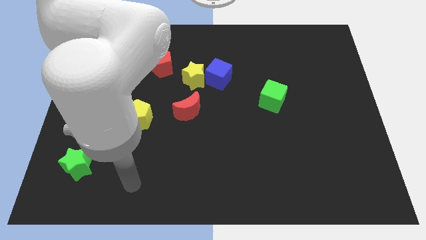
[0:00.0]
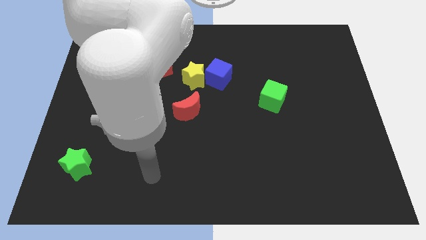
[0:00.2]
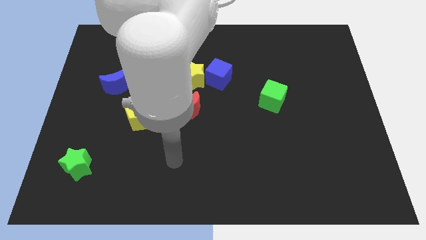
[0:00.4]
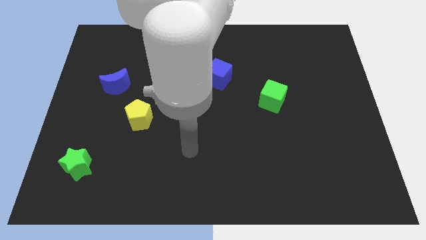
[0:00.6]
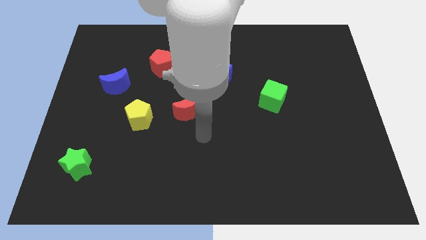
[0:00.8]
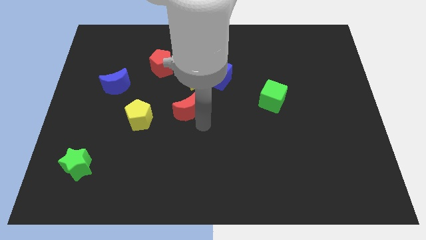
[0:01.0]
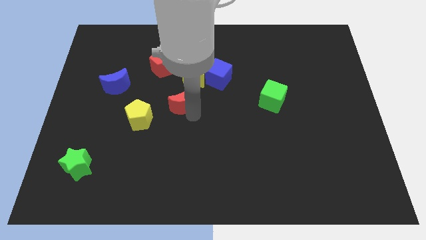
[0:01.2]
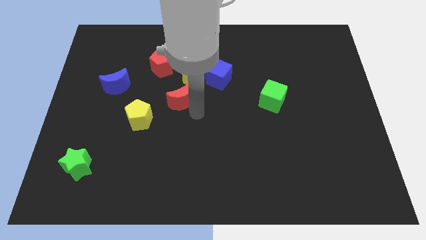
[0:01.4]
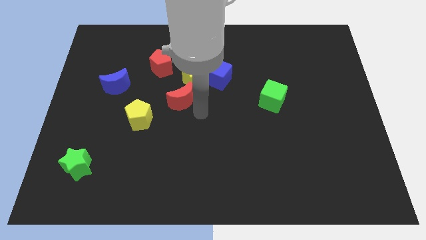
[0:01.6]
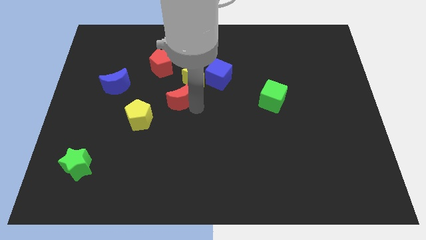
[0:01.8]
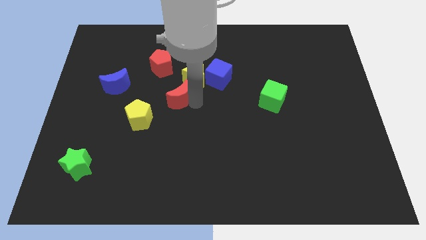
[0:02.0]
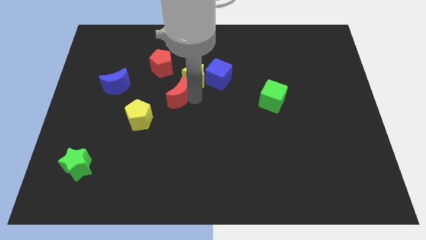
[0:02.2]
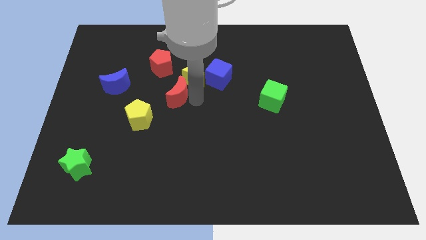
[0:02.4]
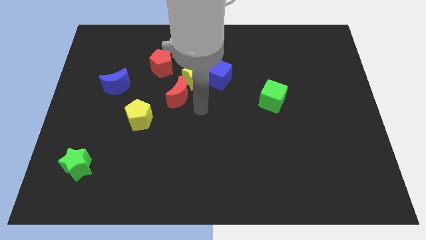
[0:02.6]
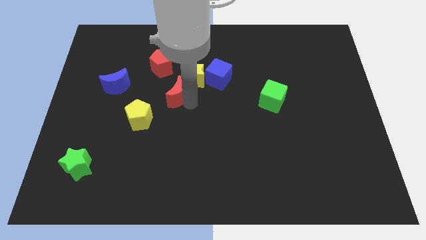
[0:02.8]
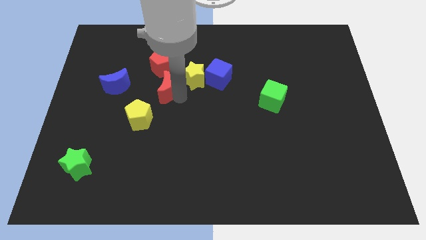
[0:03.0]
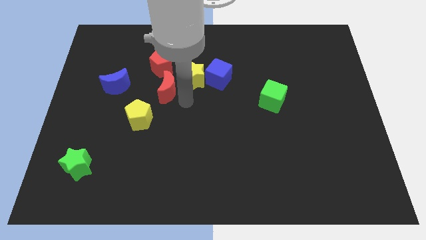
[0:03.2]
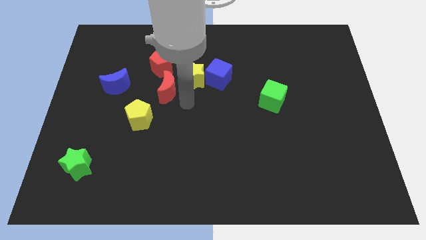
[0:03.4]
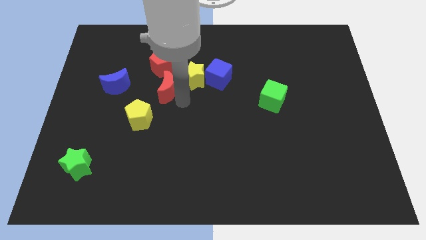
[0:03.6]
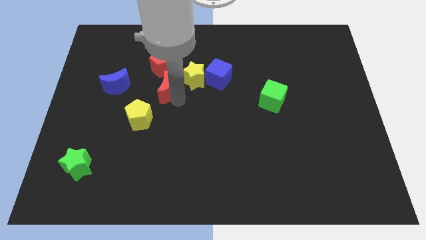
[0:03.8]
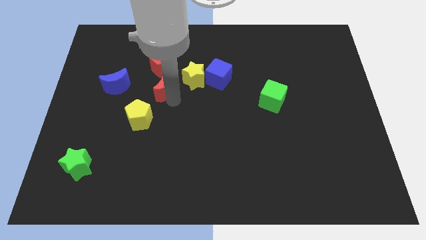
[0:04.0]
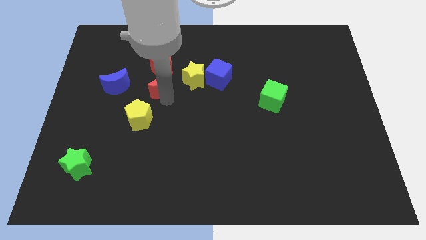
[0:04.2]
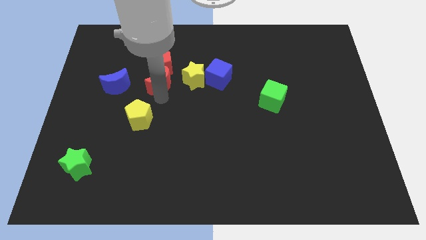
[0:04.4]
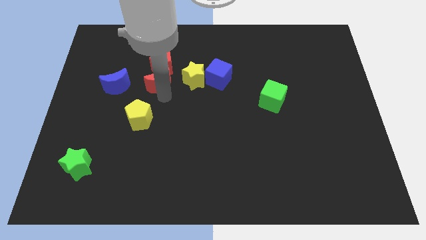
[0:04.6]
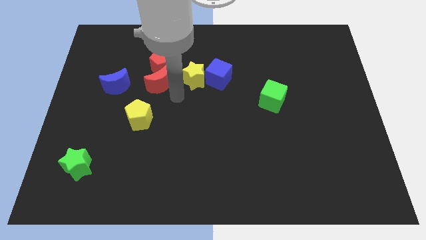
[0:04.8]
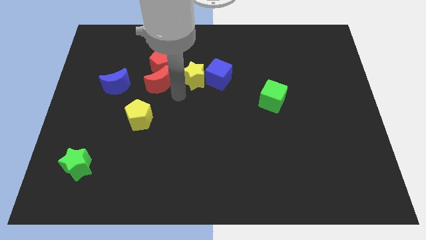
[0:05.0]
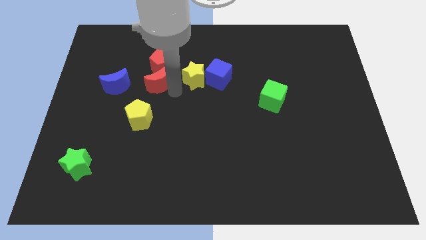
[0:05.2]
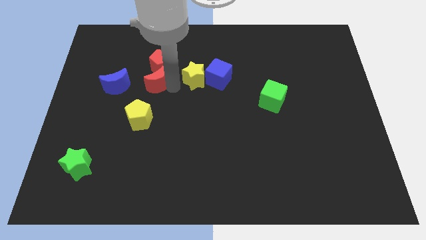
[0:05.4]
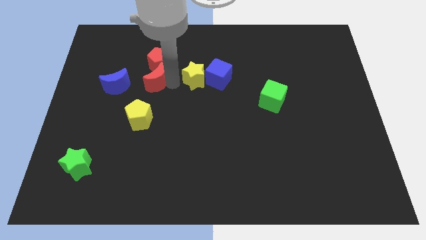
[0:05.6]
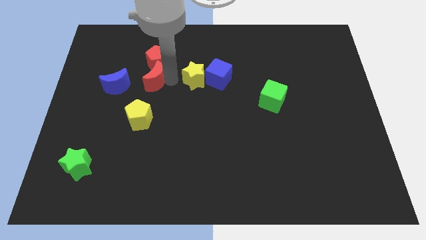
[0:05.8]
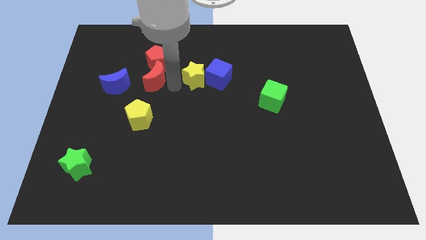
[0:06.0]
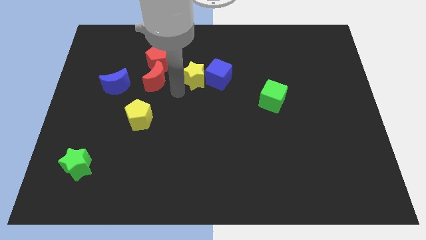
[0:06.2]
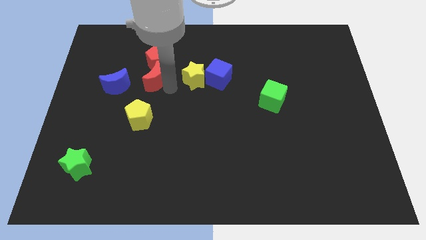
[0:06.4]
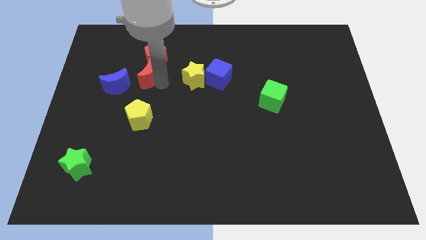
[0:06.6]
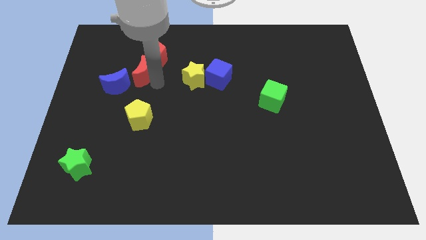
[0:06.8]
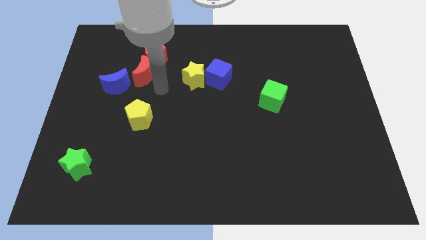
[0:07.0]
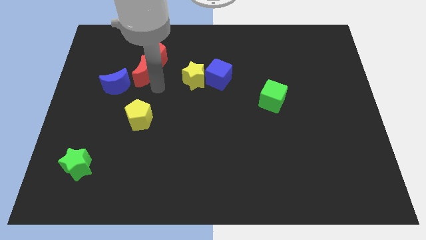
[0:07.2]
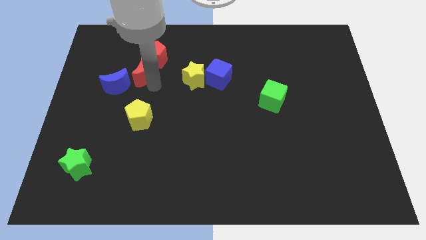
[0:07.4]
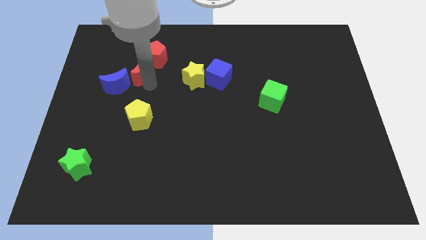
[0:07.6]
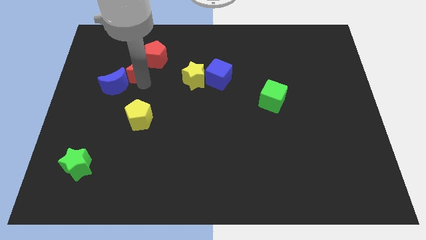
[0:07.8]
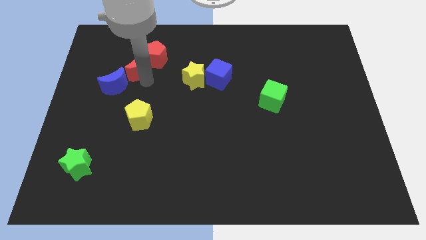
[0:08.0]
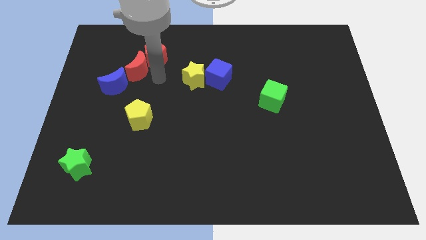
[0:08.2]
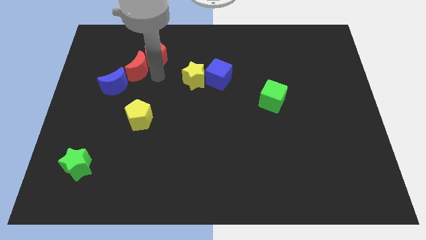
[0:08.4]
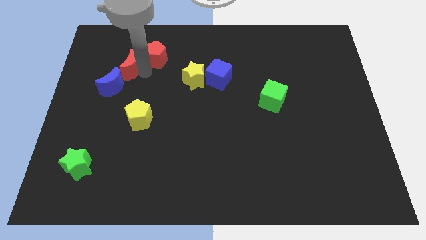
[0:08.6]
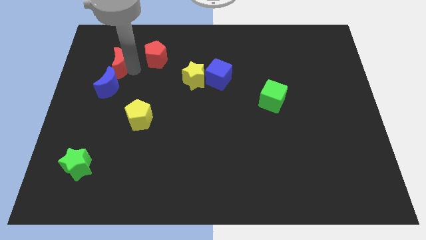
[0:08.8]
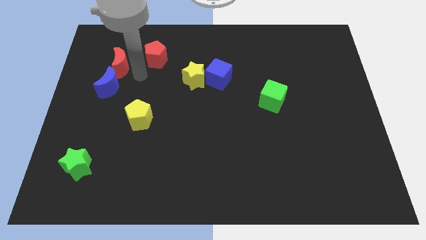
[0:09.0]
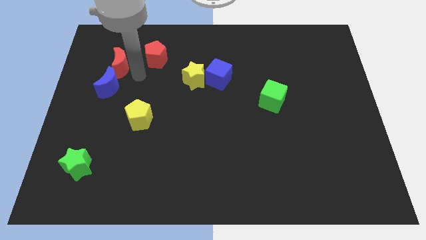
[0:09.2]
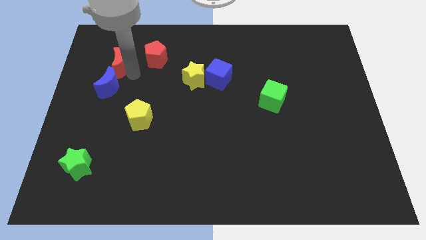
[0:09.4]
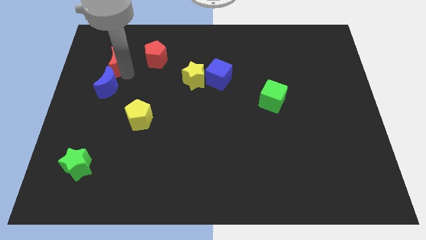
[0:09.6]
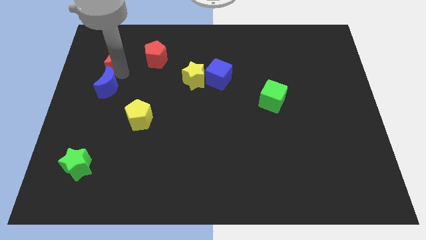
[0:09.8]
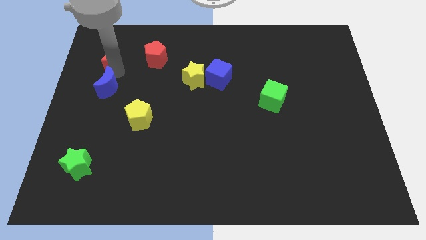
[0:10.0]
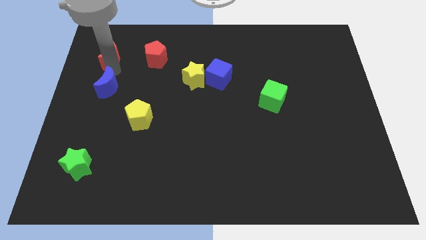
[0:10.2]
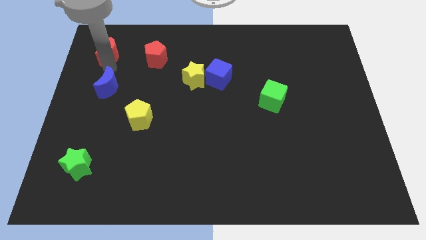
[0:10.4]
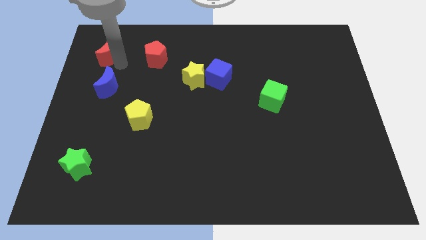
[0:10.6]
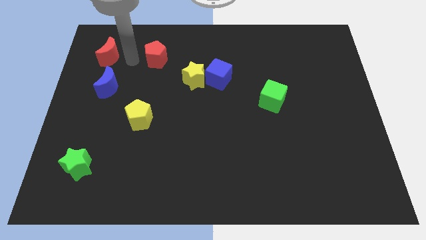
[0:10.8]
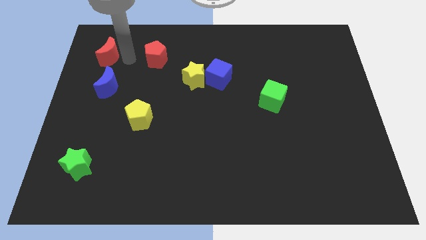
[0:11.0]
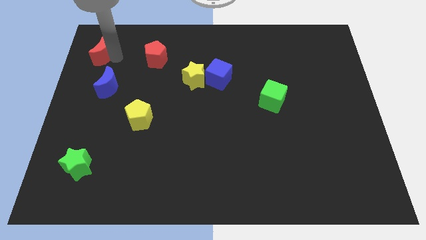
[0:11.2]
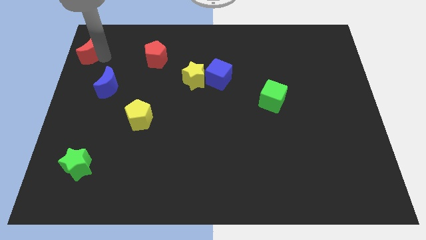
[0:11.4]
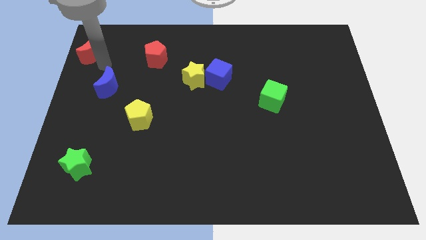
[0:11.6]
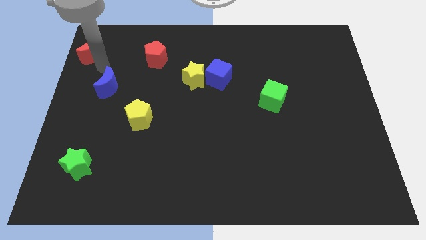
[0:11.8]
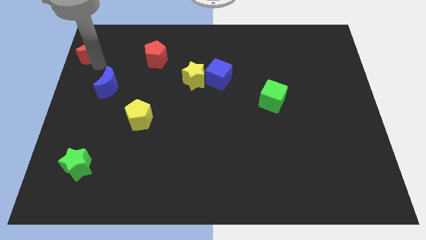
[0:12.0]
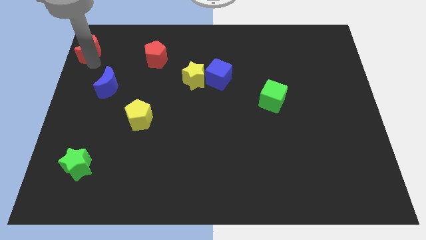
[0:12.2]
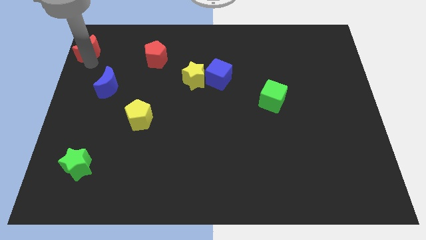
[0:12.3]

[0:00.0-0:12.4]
put the red moon to the top left

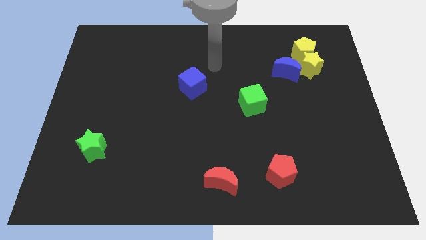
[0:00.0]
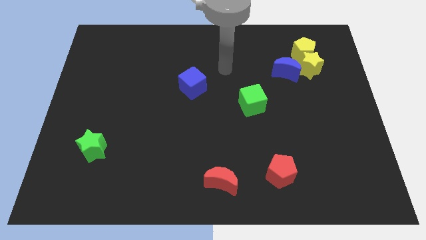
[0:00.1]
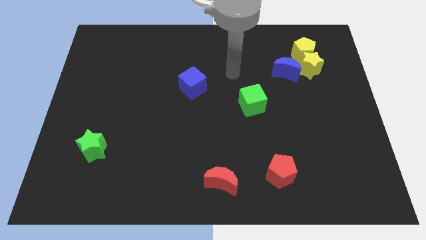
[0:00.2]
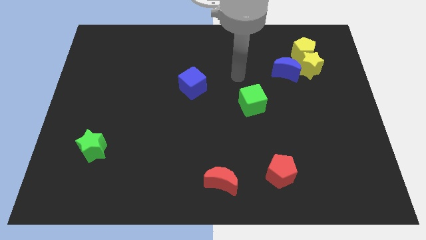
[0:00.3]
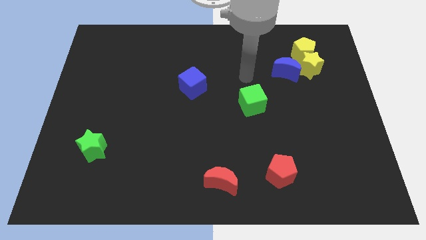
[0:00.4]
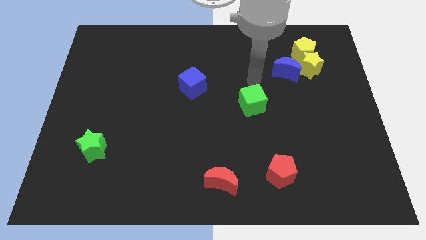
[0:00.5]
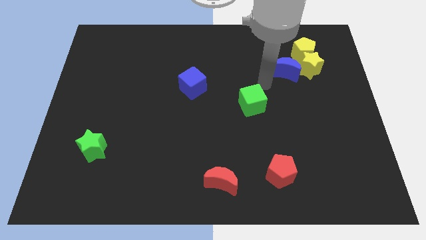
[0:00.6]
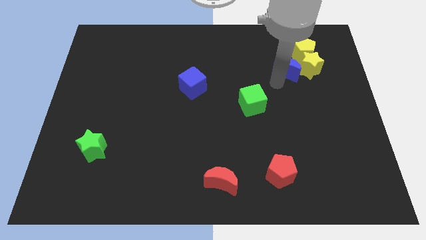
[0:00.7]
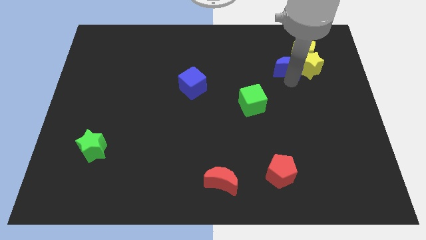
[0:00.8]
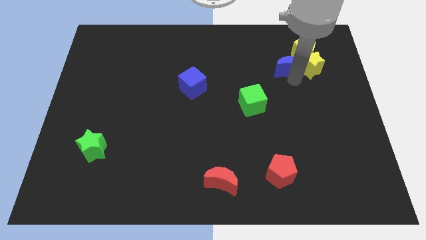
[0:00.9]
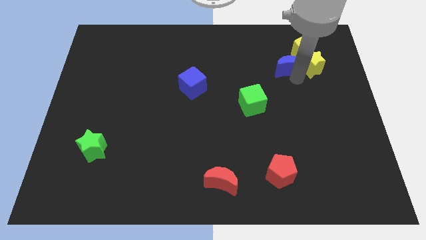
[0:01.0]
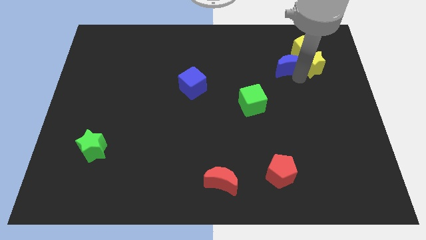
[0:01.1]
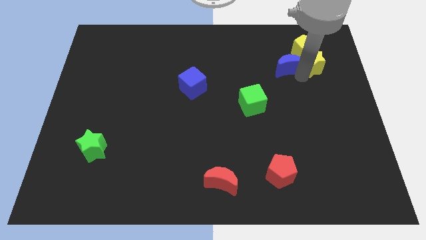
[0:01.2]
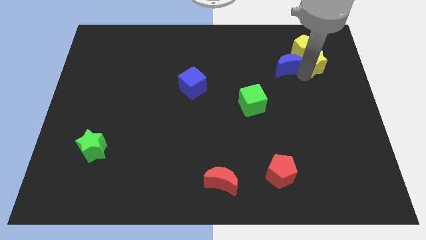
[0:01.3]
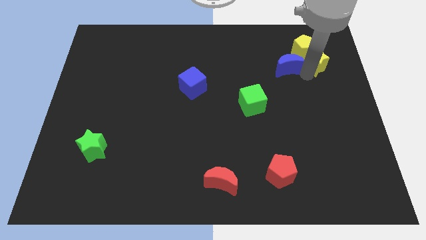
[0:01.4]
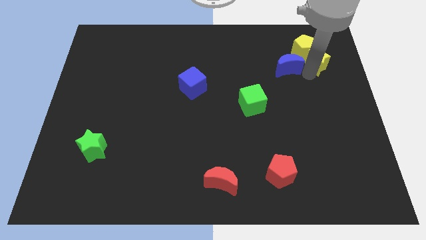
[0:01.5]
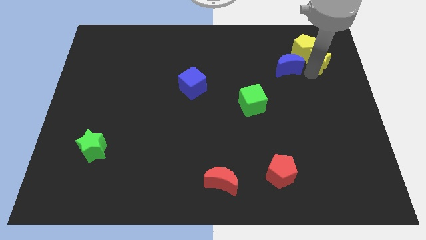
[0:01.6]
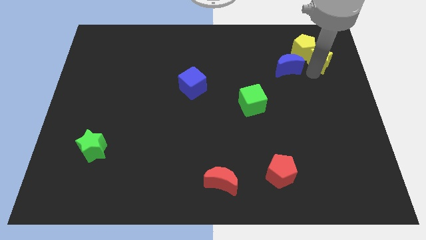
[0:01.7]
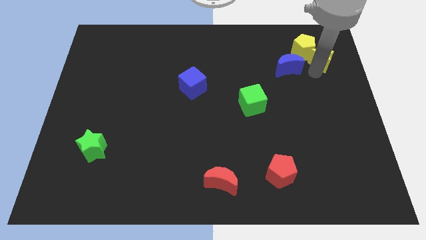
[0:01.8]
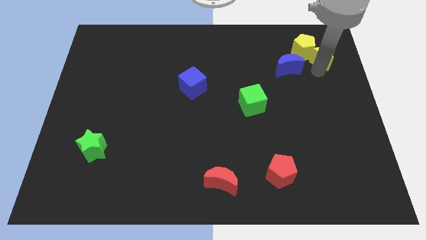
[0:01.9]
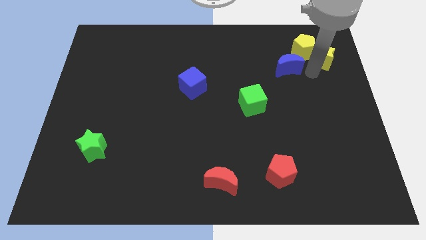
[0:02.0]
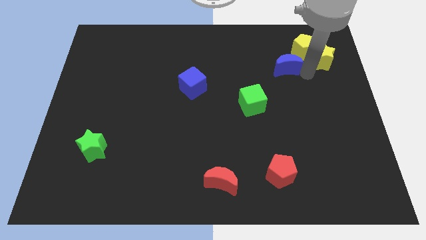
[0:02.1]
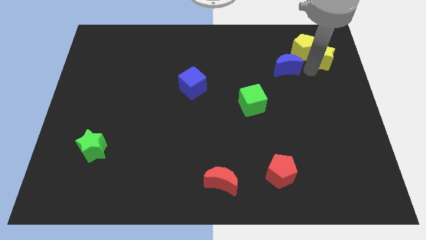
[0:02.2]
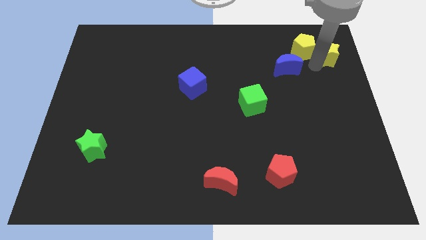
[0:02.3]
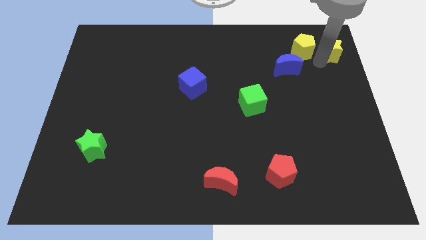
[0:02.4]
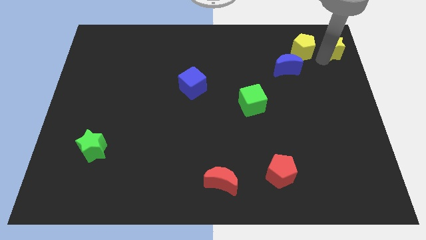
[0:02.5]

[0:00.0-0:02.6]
move the yellow star to the top right
